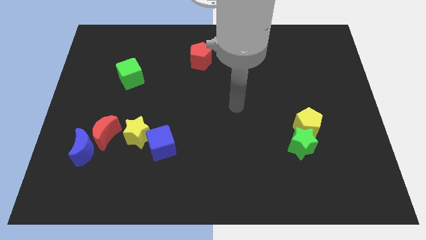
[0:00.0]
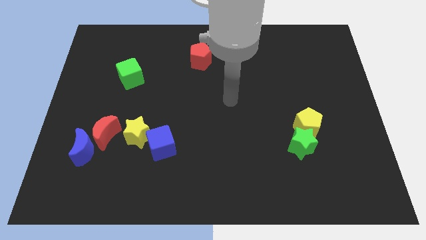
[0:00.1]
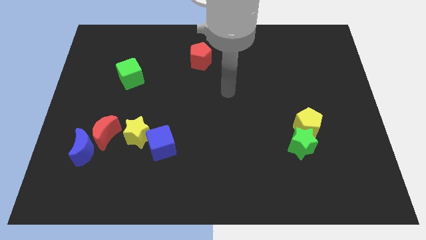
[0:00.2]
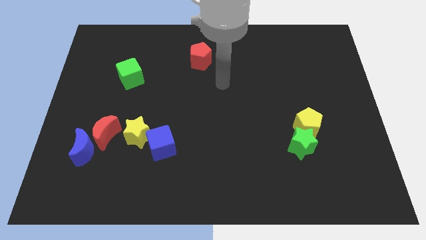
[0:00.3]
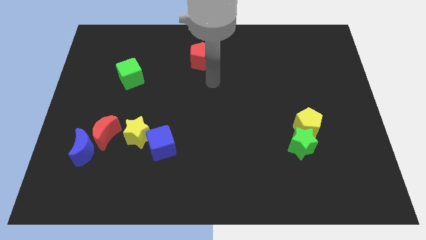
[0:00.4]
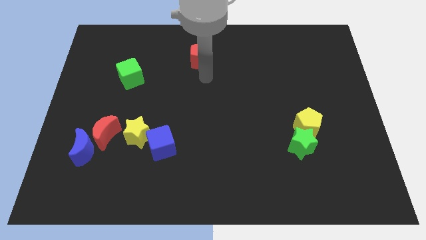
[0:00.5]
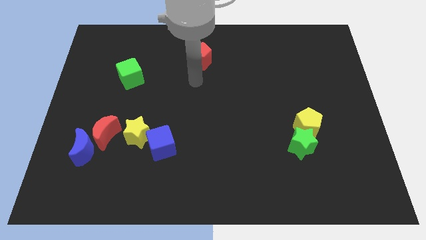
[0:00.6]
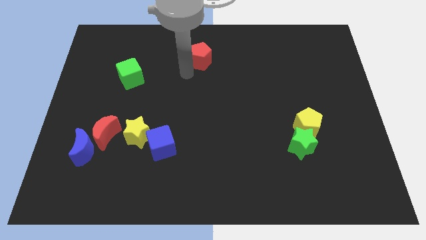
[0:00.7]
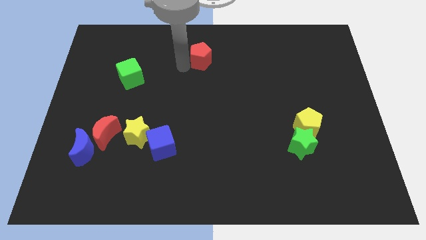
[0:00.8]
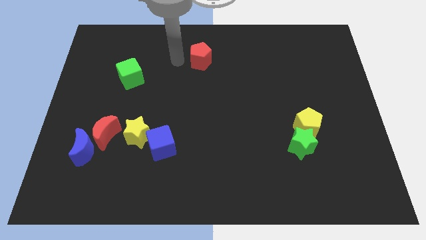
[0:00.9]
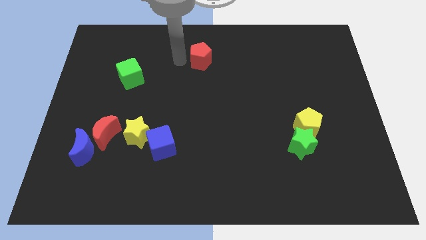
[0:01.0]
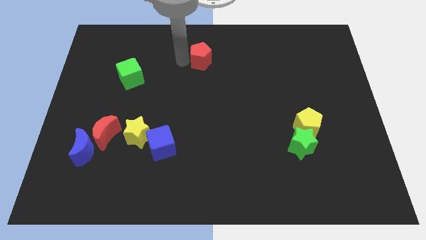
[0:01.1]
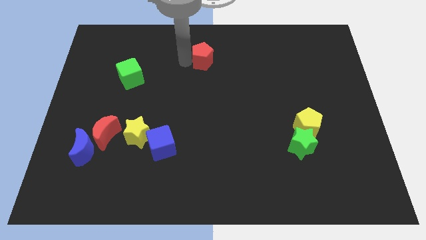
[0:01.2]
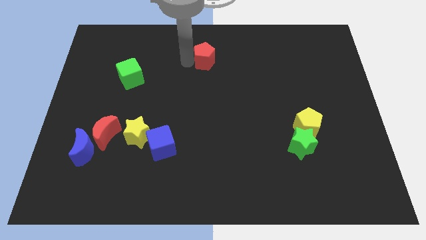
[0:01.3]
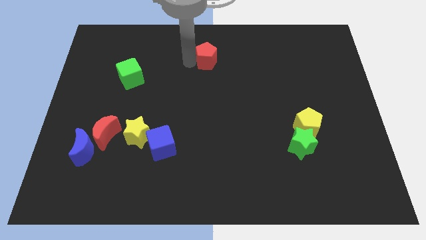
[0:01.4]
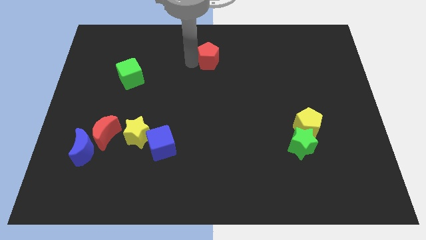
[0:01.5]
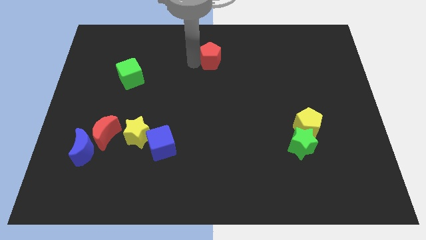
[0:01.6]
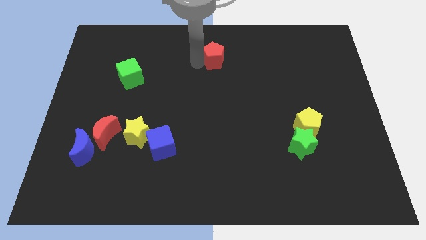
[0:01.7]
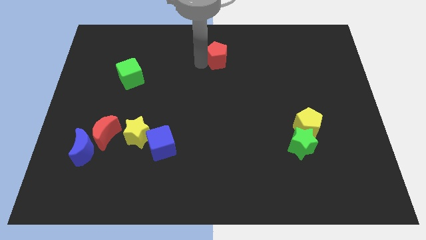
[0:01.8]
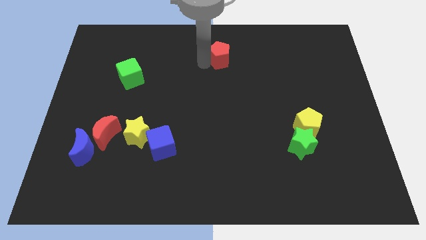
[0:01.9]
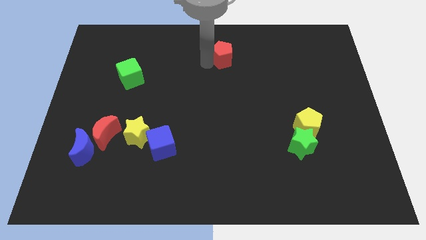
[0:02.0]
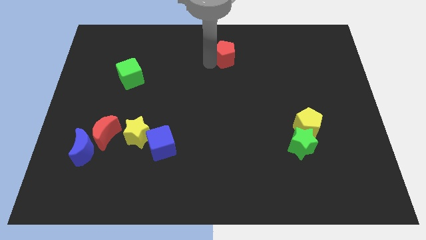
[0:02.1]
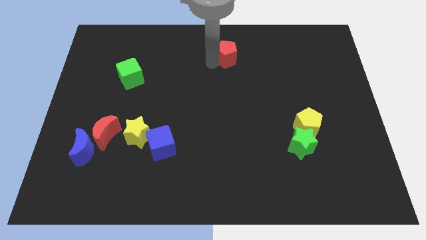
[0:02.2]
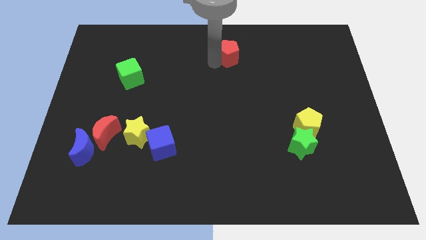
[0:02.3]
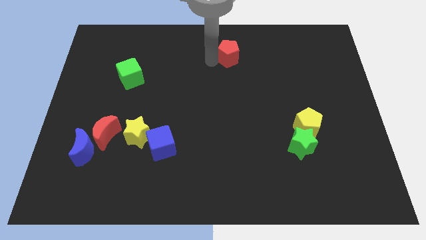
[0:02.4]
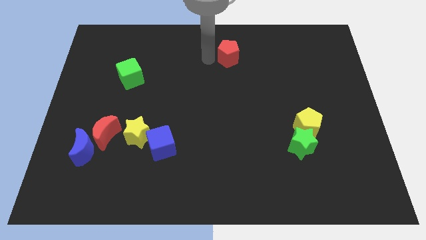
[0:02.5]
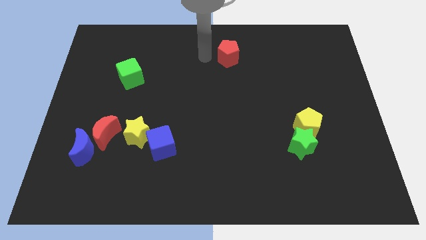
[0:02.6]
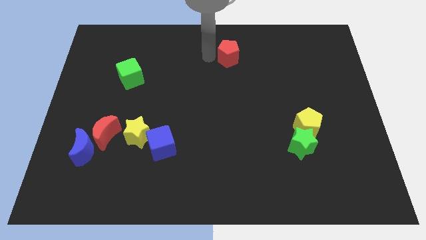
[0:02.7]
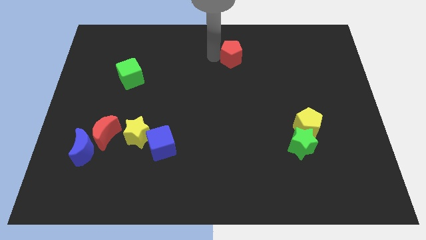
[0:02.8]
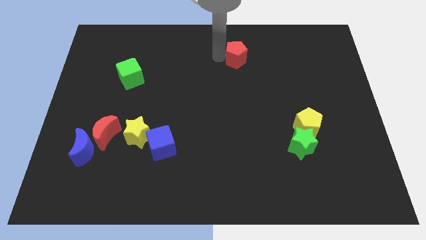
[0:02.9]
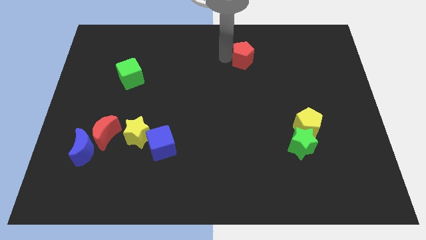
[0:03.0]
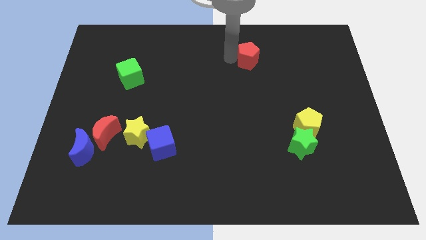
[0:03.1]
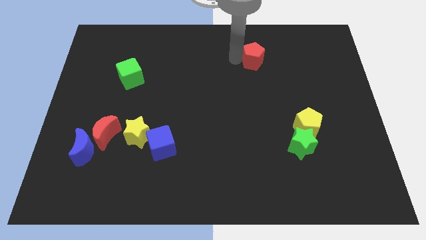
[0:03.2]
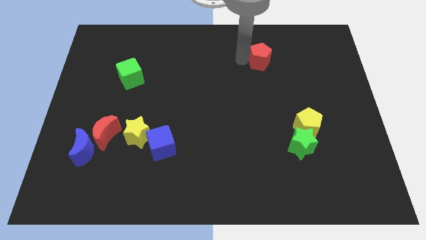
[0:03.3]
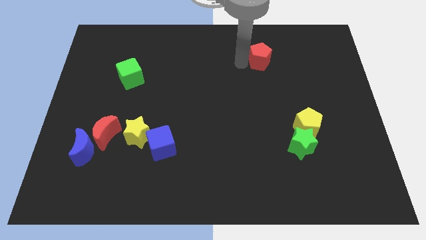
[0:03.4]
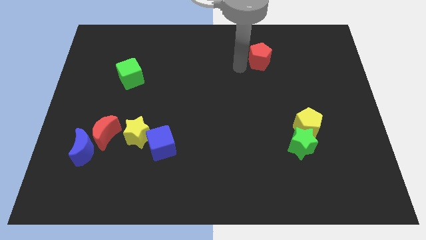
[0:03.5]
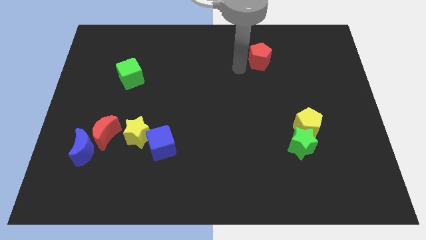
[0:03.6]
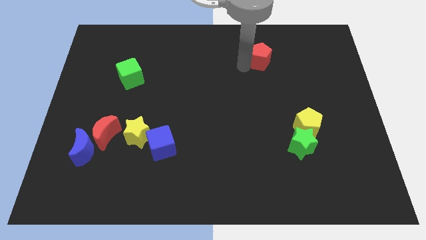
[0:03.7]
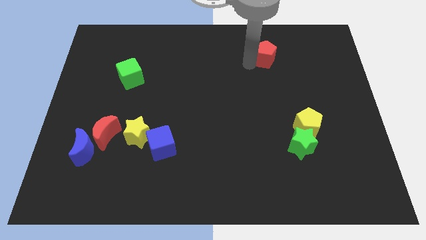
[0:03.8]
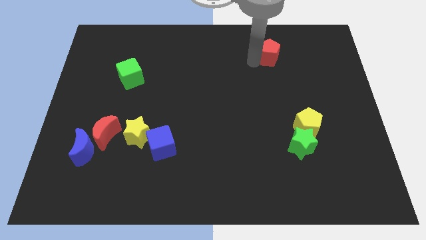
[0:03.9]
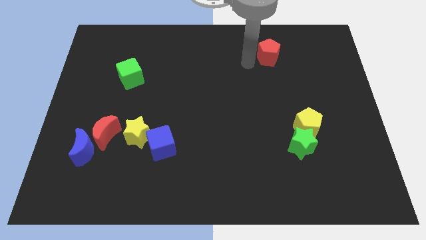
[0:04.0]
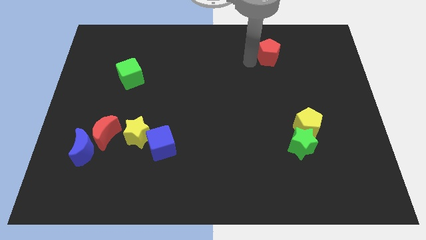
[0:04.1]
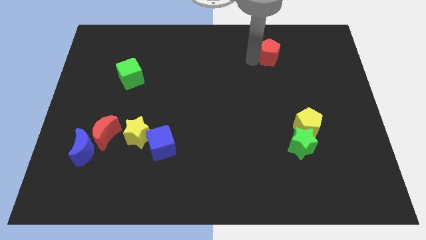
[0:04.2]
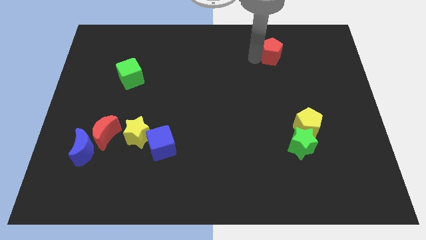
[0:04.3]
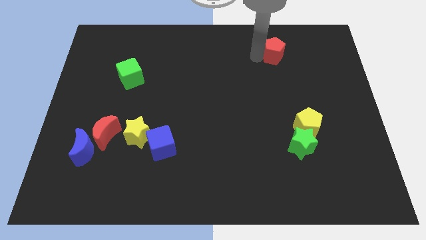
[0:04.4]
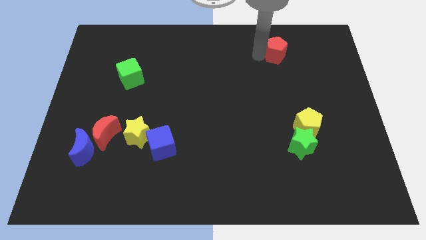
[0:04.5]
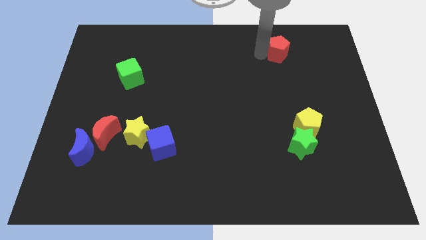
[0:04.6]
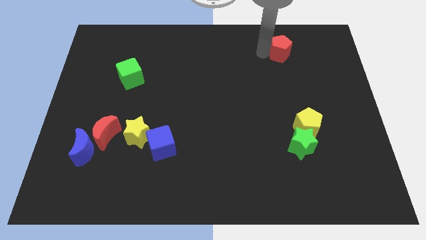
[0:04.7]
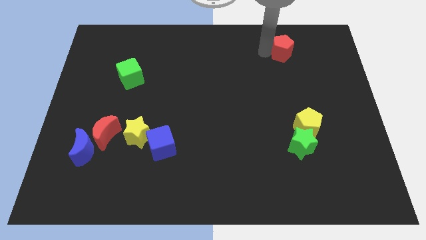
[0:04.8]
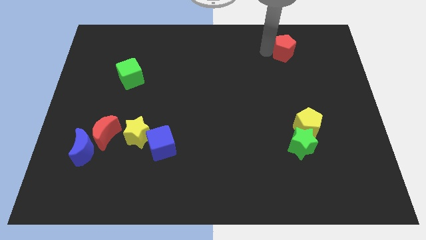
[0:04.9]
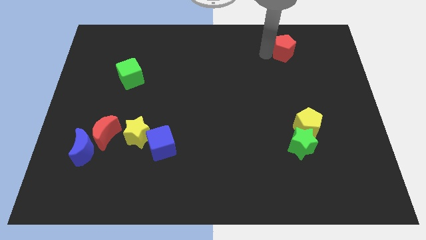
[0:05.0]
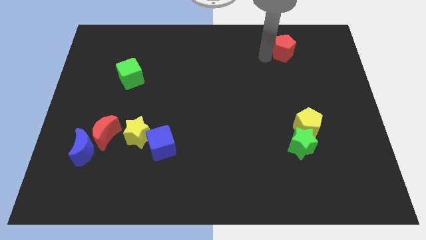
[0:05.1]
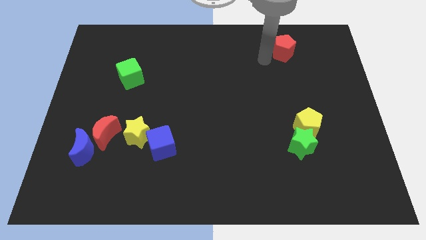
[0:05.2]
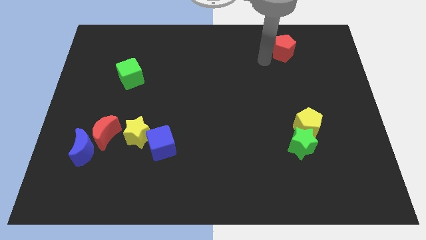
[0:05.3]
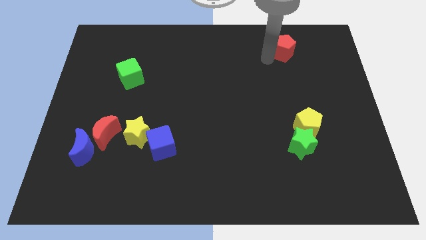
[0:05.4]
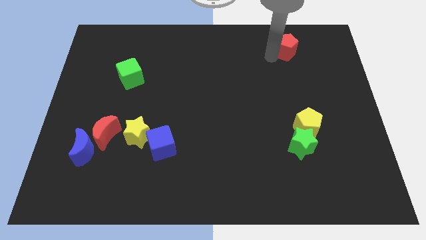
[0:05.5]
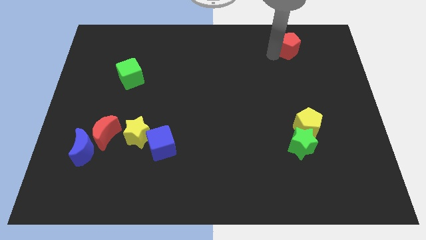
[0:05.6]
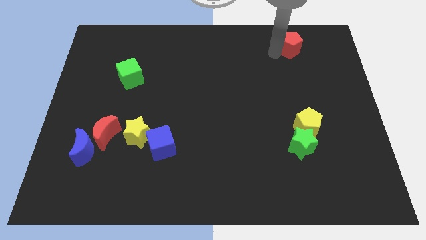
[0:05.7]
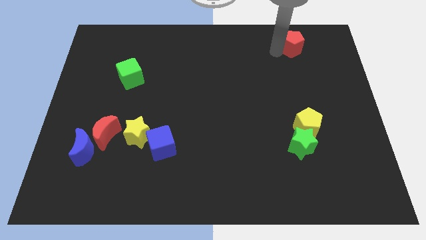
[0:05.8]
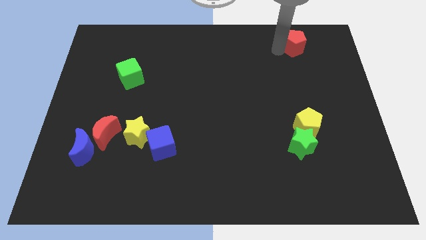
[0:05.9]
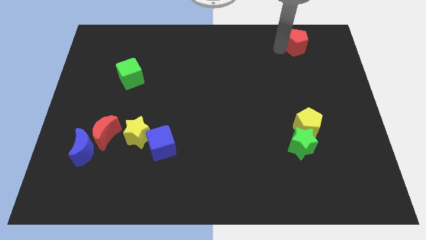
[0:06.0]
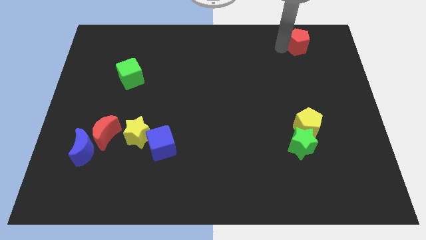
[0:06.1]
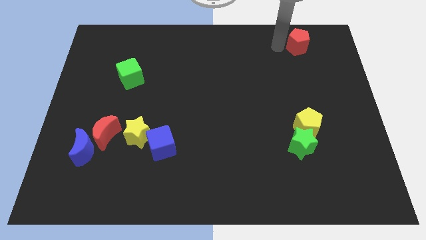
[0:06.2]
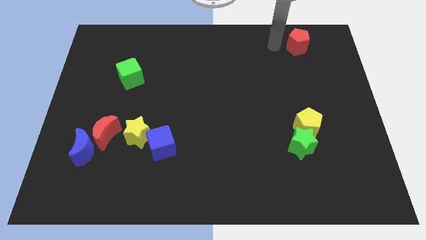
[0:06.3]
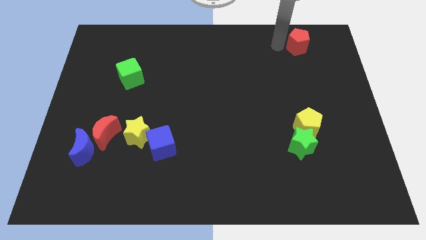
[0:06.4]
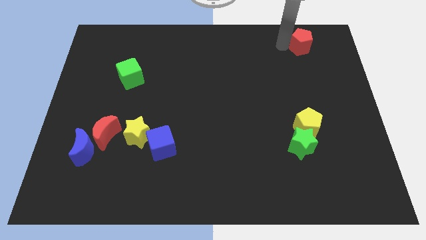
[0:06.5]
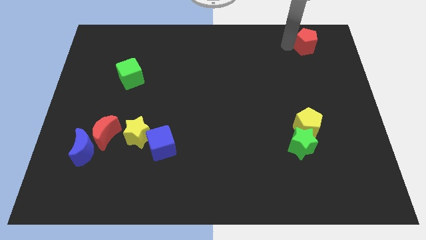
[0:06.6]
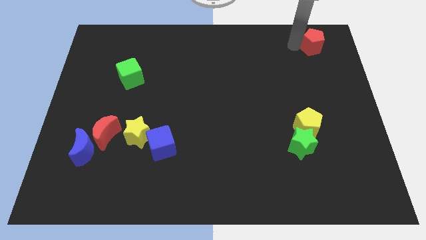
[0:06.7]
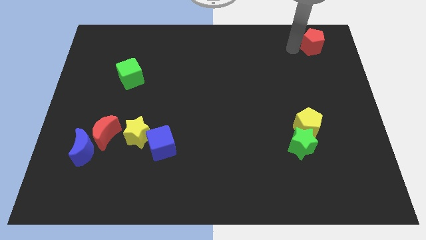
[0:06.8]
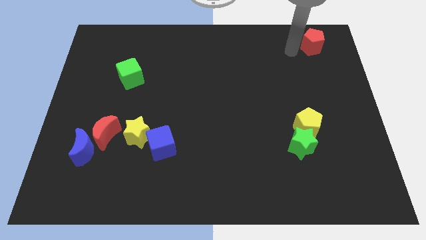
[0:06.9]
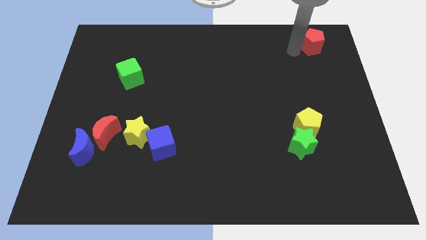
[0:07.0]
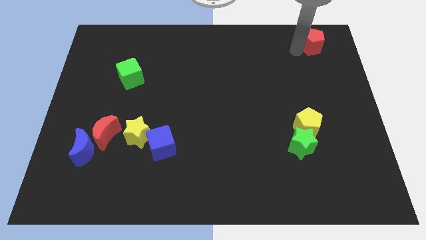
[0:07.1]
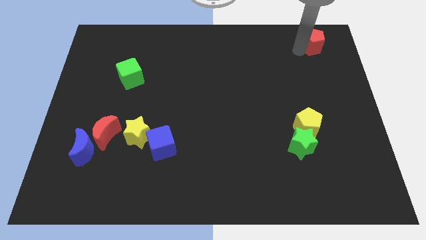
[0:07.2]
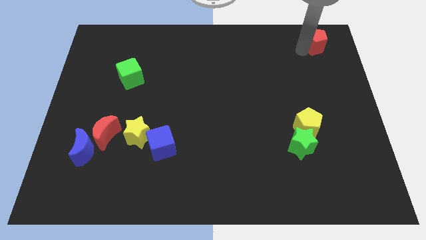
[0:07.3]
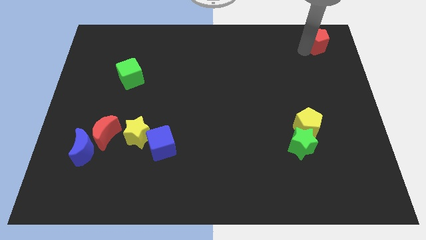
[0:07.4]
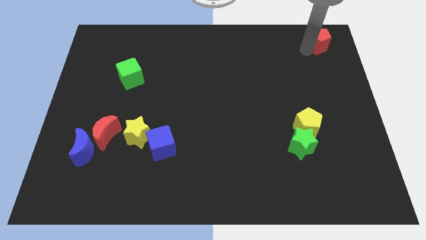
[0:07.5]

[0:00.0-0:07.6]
move the red pentagon to the top right of the board
